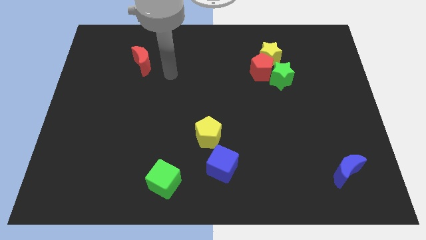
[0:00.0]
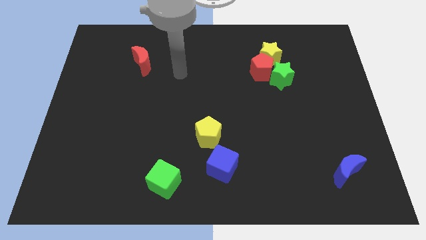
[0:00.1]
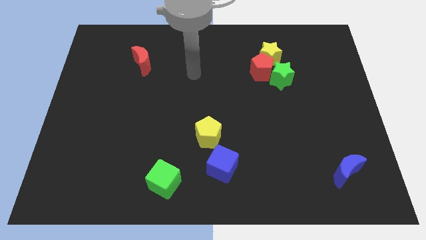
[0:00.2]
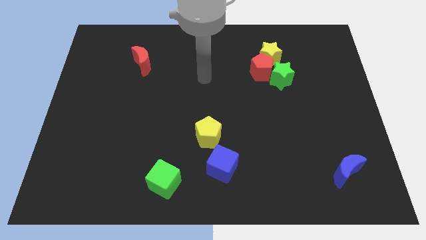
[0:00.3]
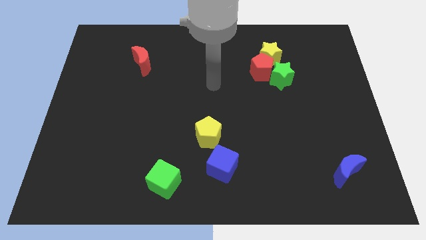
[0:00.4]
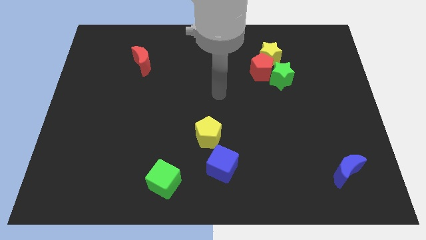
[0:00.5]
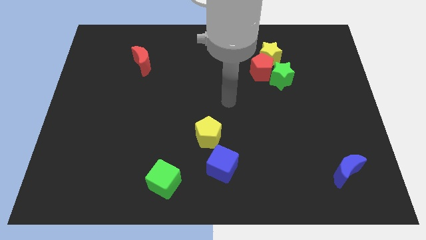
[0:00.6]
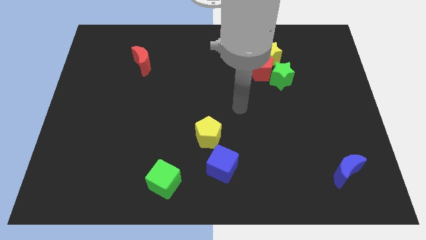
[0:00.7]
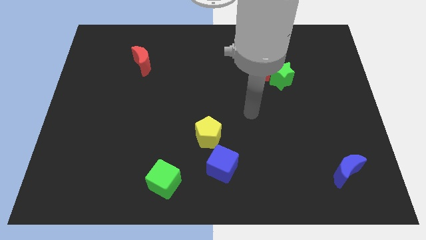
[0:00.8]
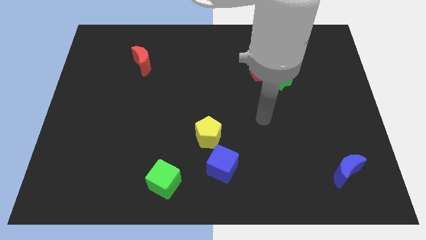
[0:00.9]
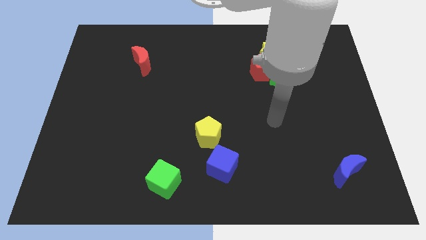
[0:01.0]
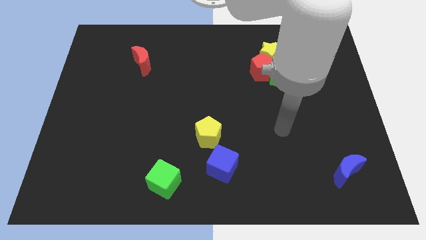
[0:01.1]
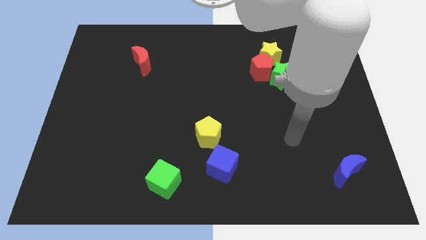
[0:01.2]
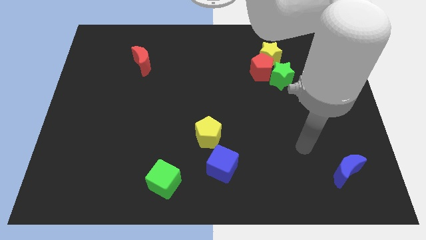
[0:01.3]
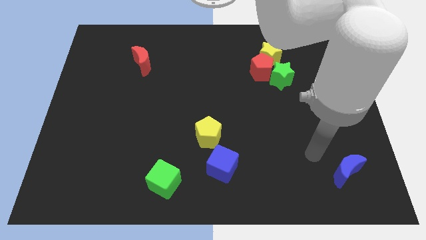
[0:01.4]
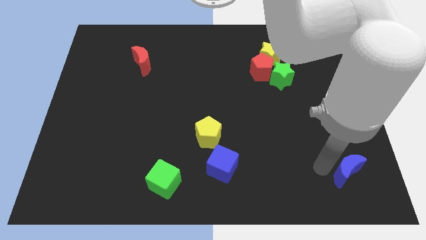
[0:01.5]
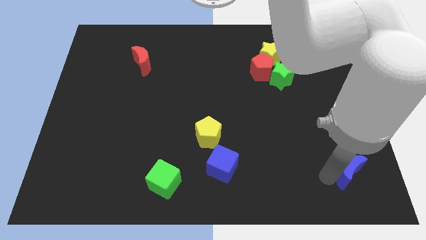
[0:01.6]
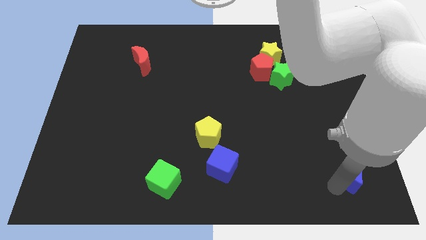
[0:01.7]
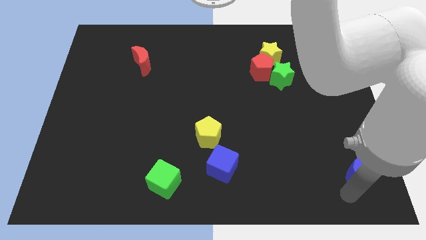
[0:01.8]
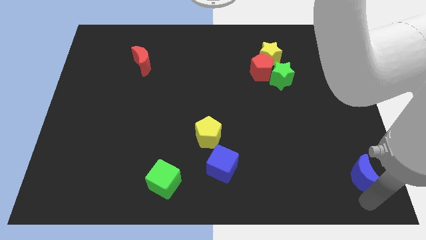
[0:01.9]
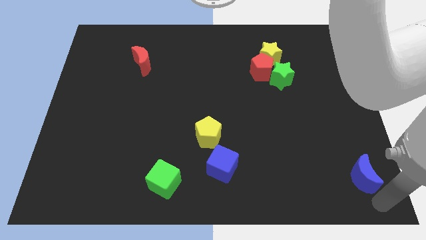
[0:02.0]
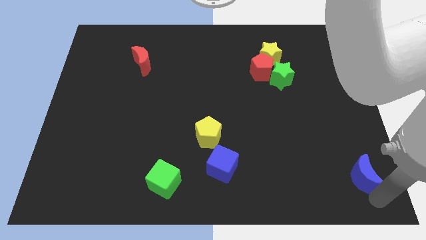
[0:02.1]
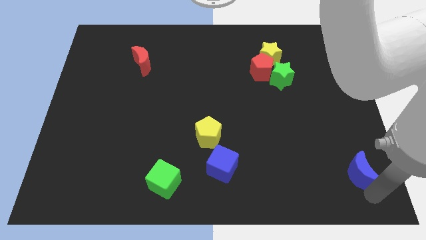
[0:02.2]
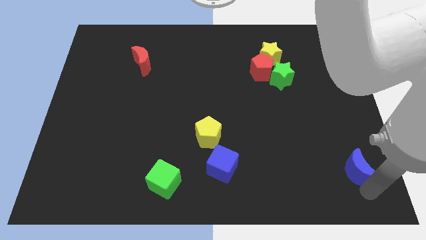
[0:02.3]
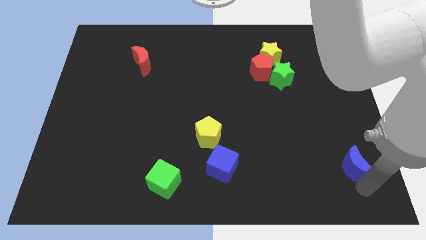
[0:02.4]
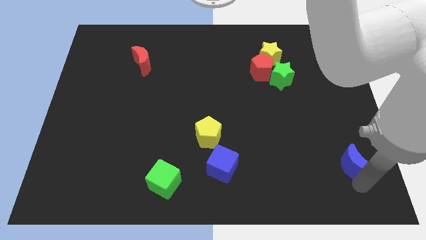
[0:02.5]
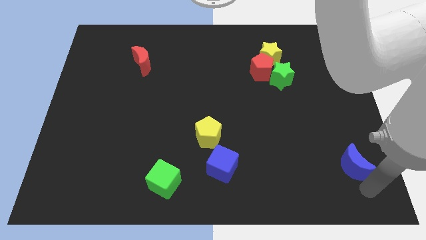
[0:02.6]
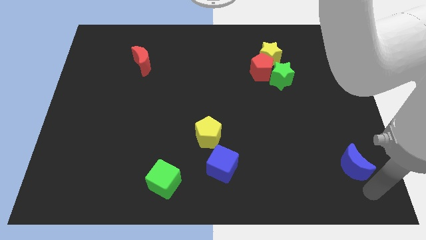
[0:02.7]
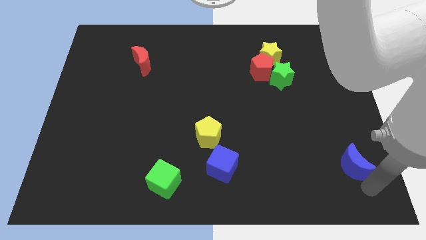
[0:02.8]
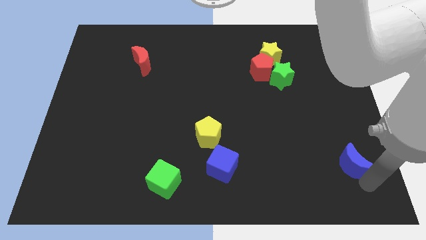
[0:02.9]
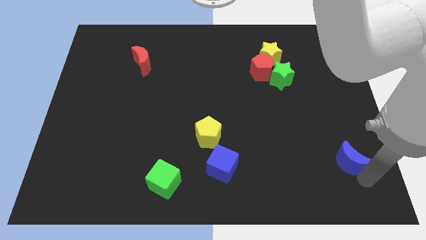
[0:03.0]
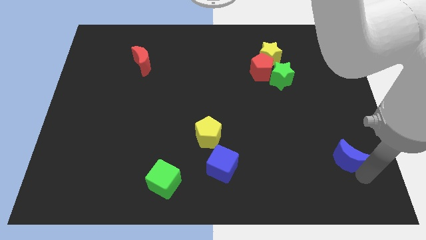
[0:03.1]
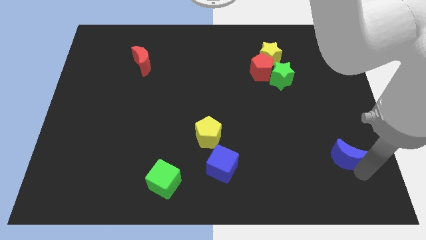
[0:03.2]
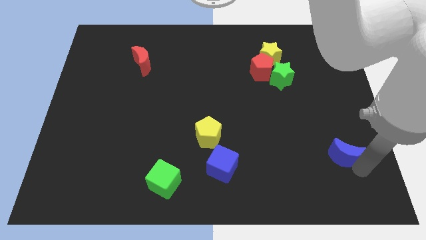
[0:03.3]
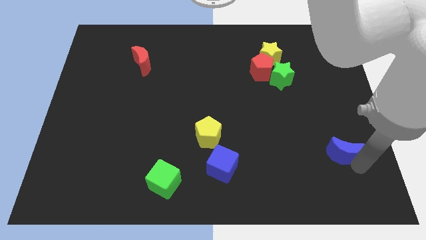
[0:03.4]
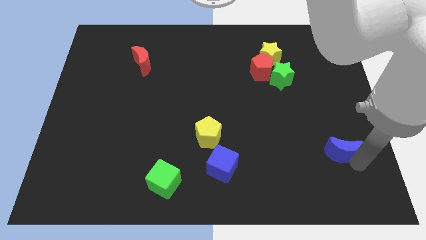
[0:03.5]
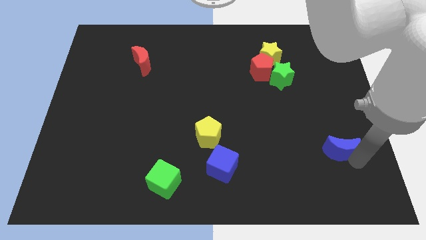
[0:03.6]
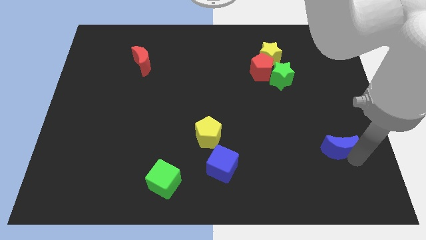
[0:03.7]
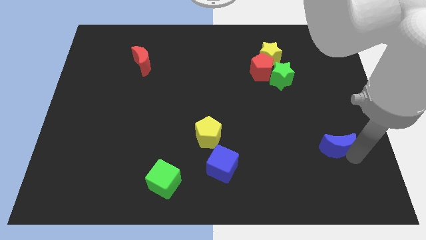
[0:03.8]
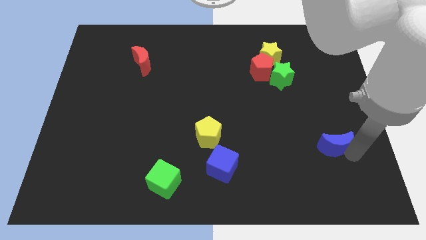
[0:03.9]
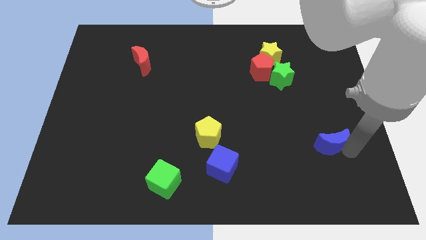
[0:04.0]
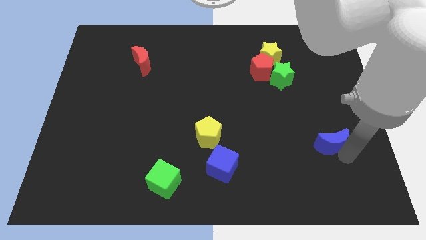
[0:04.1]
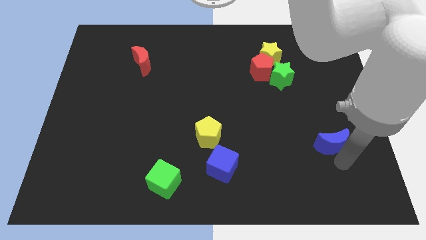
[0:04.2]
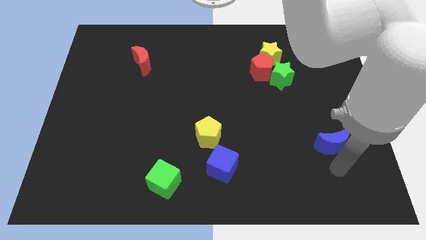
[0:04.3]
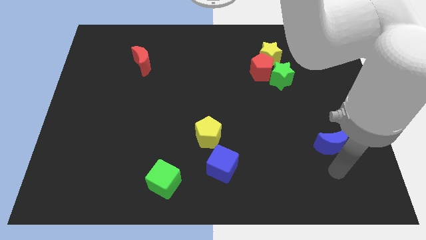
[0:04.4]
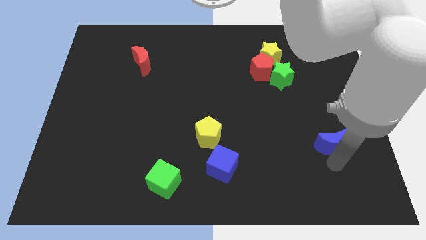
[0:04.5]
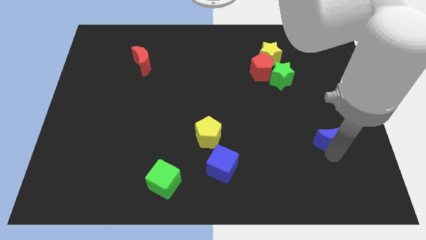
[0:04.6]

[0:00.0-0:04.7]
move the blue moon a little upwards

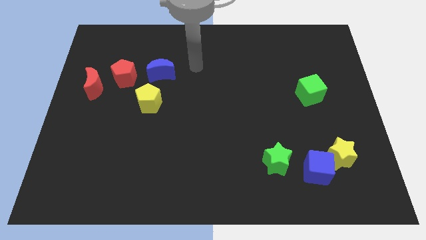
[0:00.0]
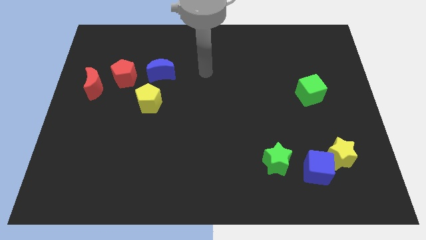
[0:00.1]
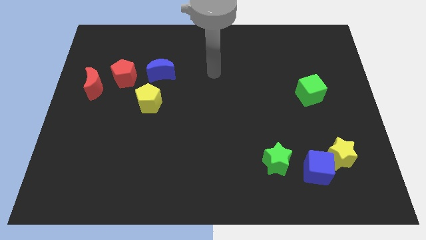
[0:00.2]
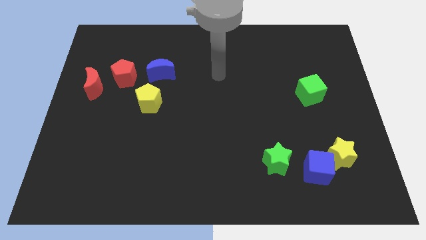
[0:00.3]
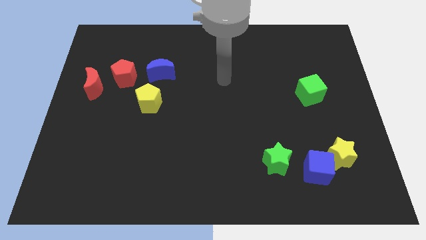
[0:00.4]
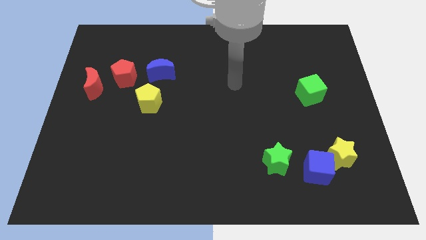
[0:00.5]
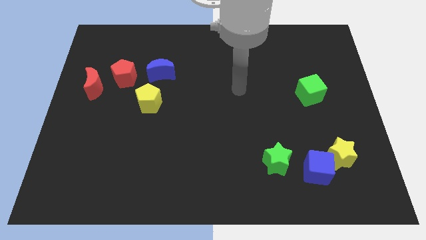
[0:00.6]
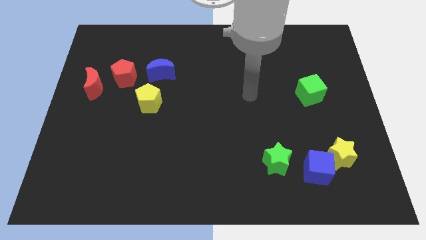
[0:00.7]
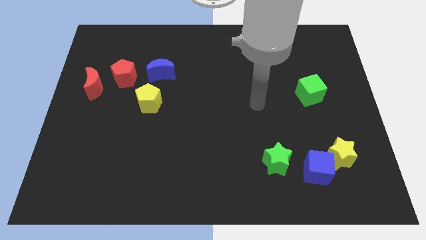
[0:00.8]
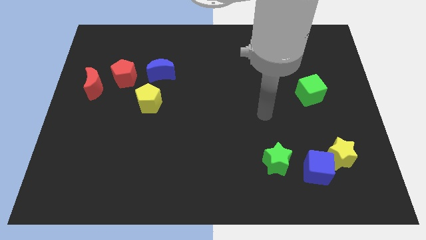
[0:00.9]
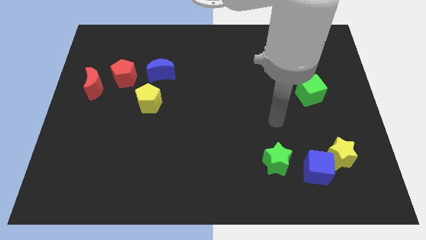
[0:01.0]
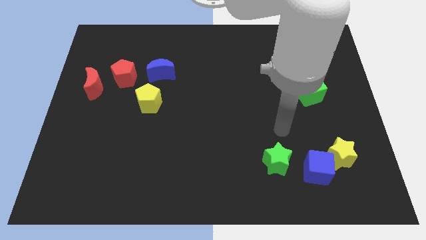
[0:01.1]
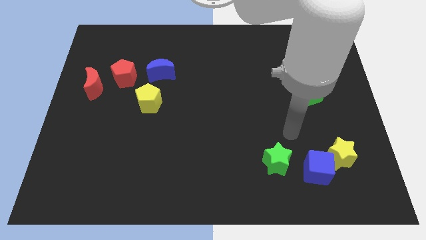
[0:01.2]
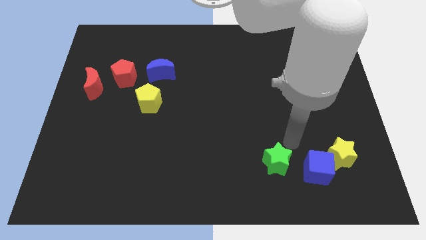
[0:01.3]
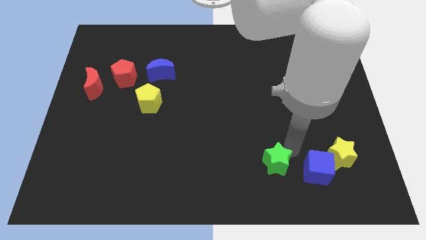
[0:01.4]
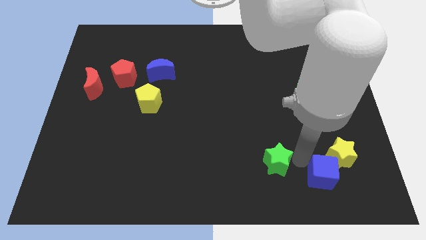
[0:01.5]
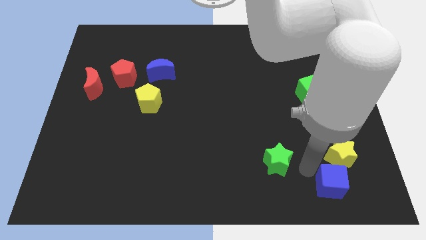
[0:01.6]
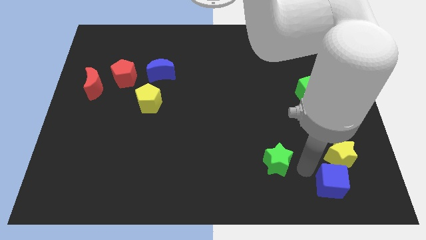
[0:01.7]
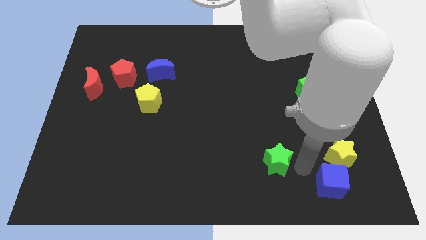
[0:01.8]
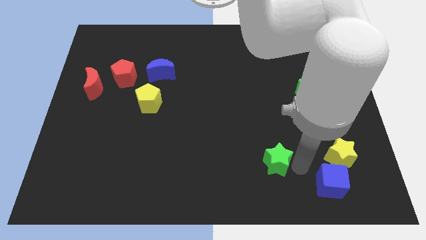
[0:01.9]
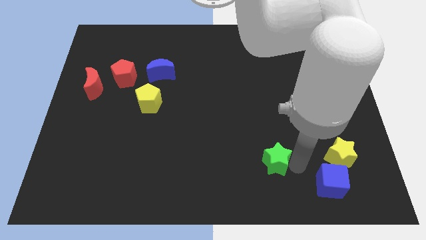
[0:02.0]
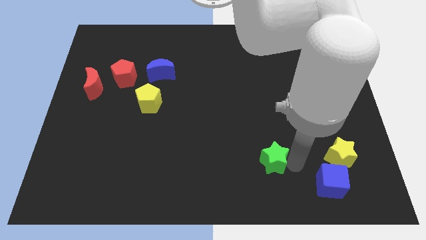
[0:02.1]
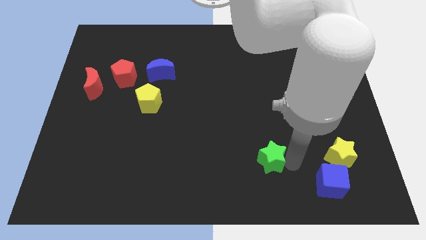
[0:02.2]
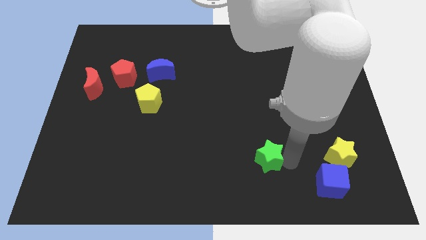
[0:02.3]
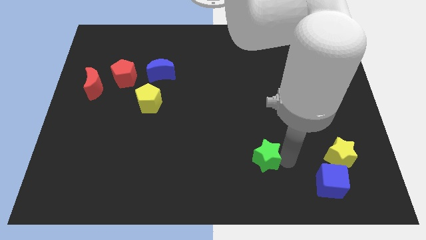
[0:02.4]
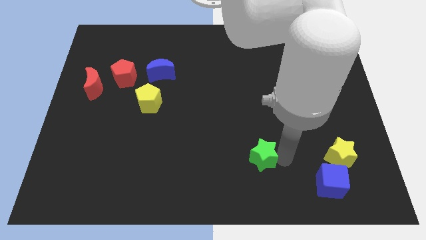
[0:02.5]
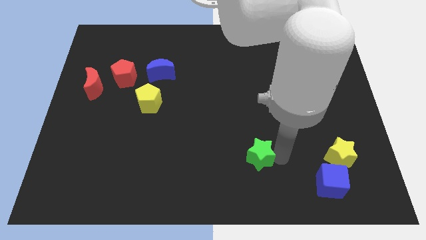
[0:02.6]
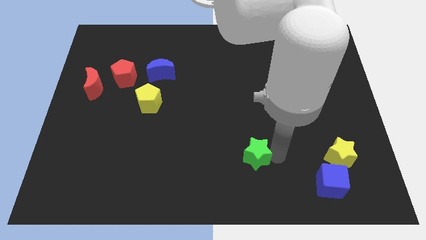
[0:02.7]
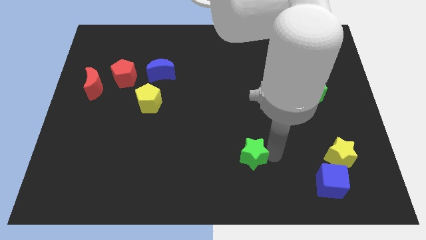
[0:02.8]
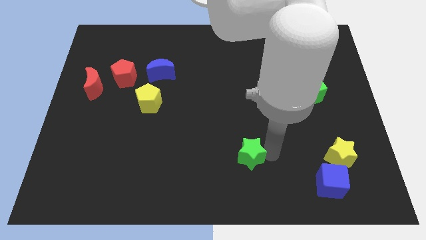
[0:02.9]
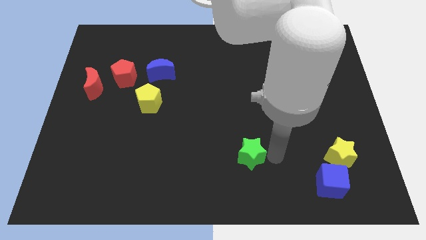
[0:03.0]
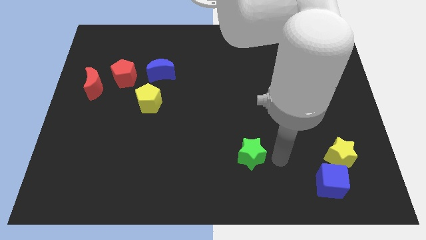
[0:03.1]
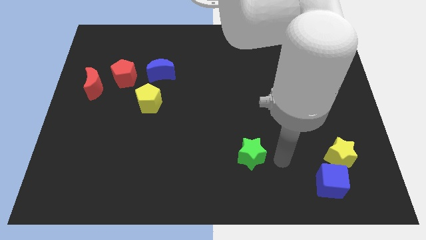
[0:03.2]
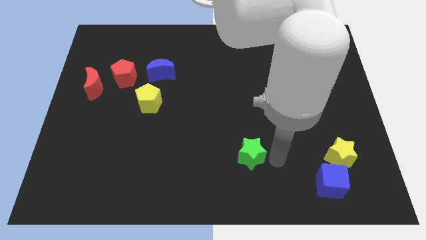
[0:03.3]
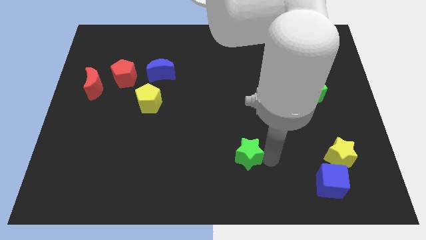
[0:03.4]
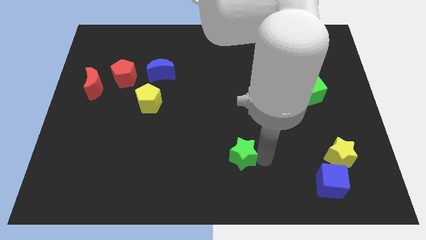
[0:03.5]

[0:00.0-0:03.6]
move the green star a bit to the left
